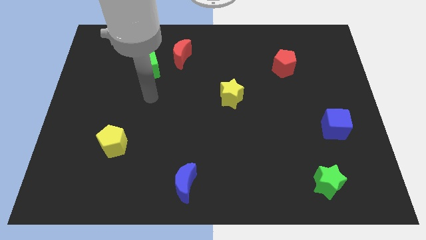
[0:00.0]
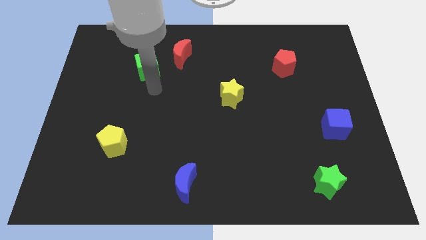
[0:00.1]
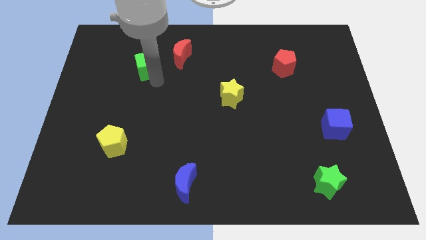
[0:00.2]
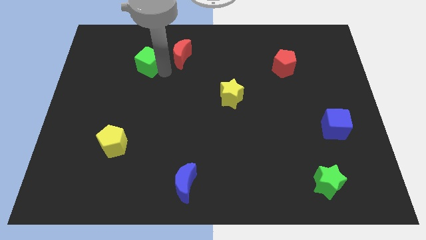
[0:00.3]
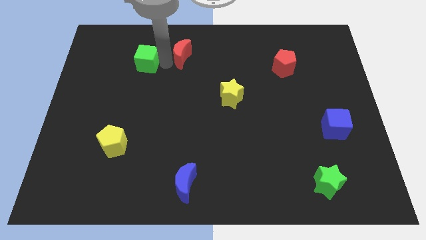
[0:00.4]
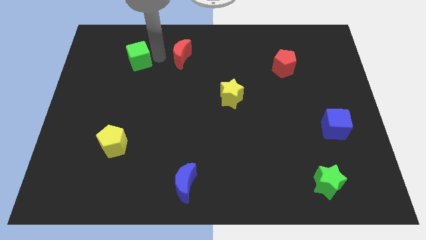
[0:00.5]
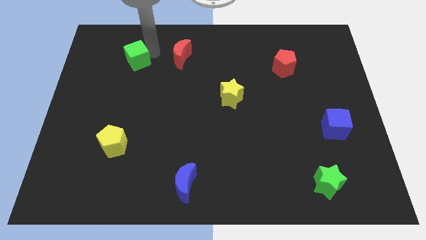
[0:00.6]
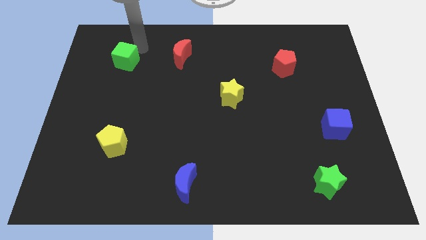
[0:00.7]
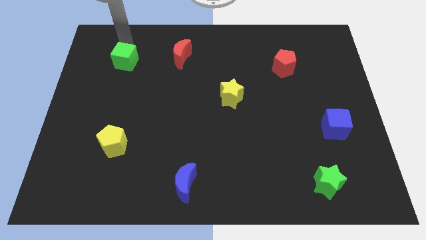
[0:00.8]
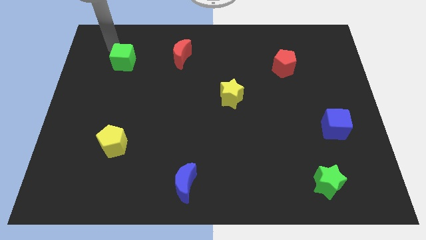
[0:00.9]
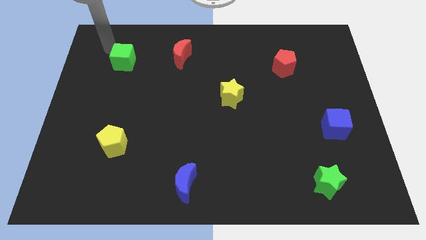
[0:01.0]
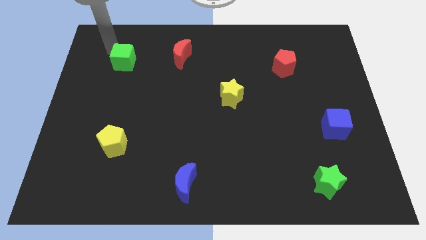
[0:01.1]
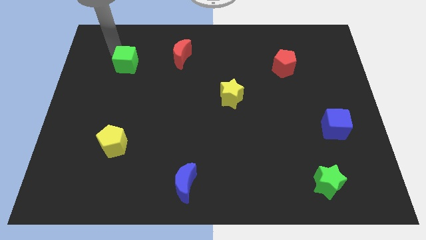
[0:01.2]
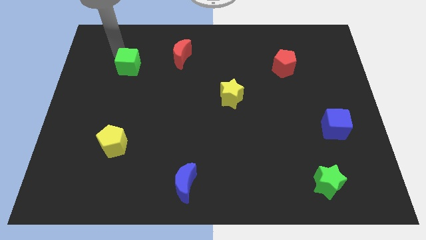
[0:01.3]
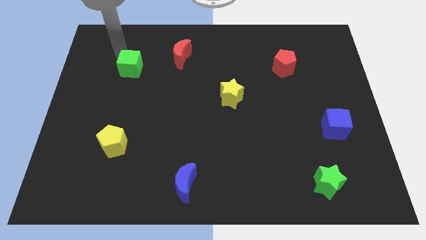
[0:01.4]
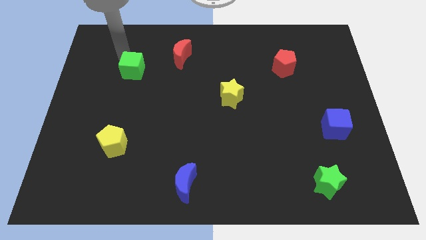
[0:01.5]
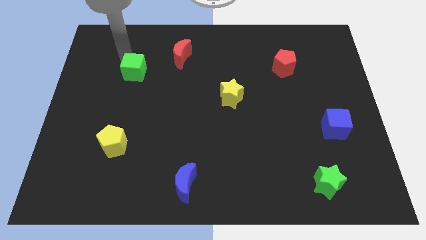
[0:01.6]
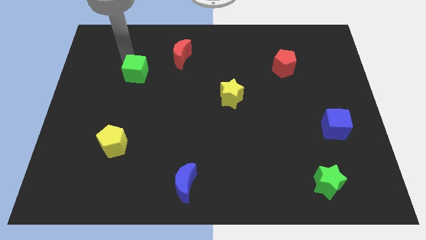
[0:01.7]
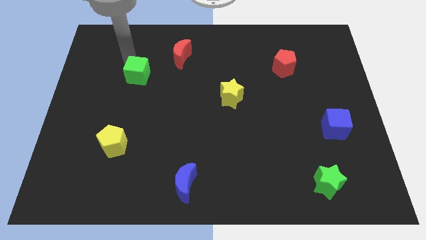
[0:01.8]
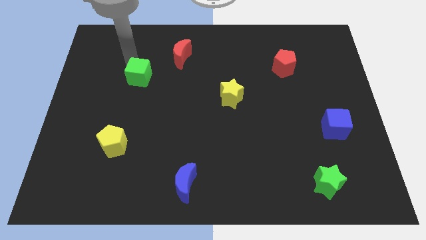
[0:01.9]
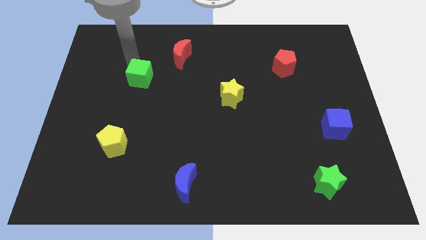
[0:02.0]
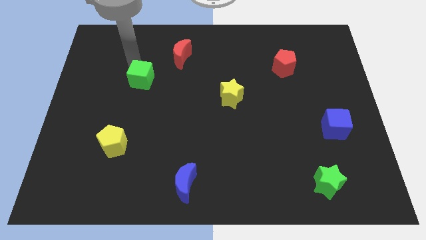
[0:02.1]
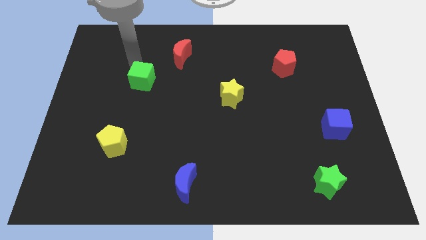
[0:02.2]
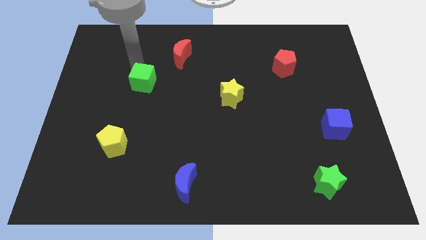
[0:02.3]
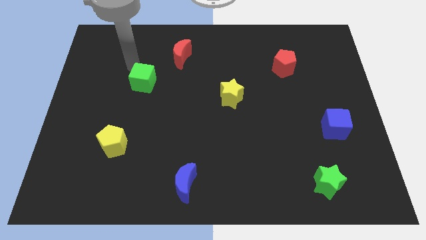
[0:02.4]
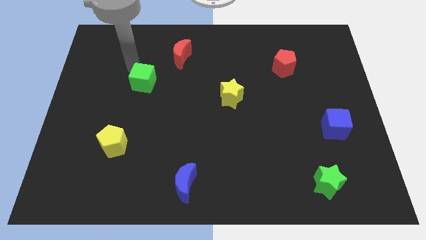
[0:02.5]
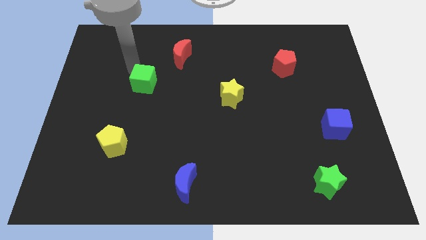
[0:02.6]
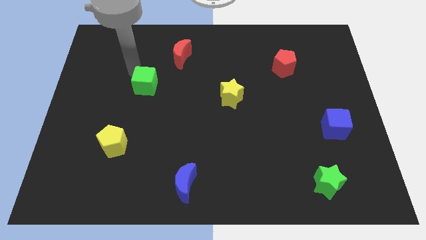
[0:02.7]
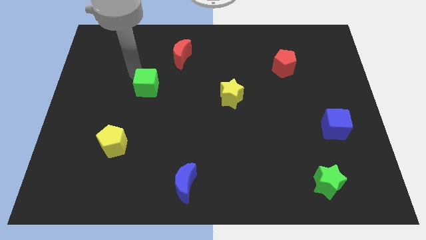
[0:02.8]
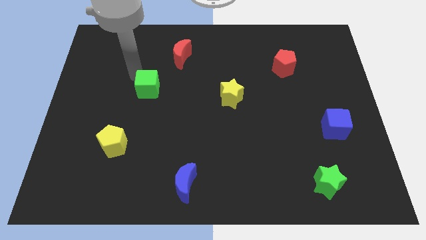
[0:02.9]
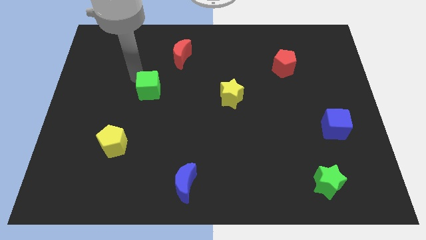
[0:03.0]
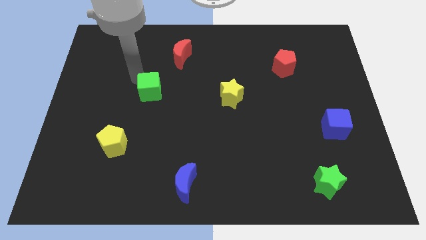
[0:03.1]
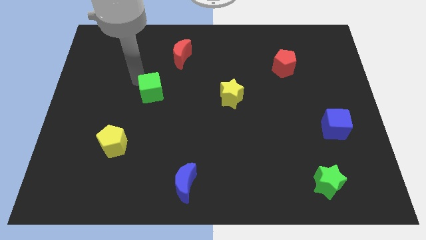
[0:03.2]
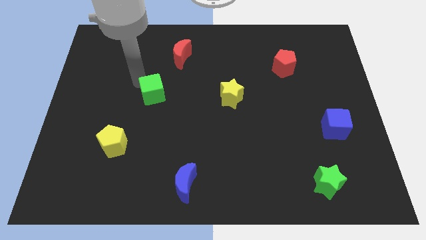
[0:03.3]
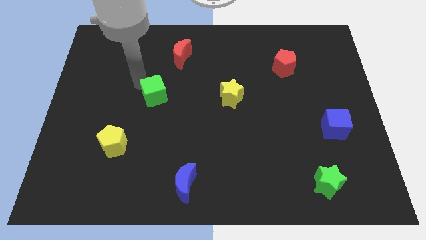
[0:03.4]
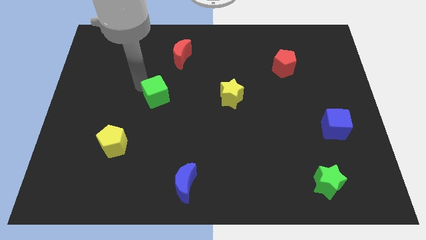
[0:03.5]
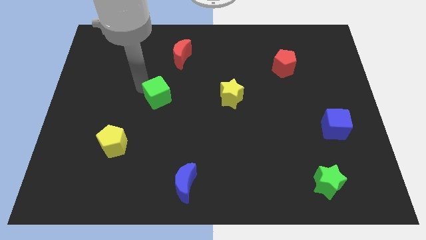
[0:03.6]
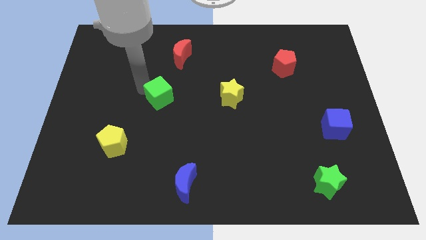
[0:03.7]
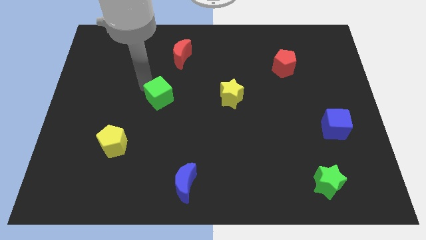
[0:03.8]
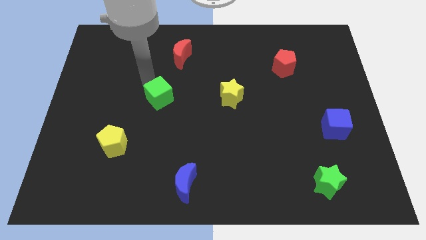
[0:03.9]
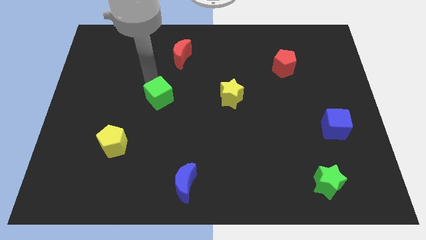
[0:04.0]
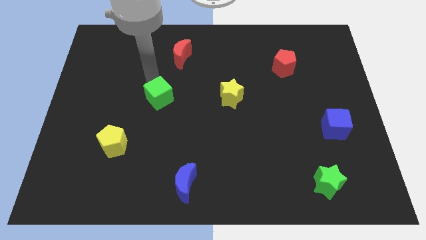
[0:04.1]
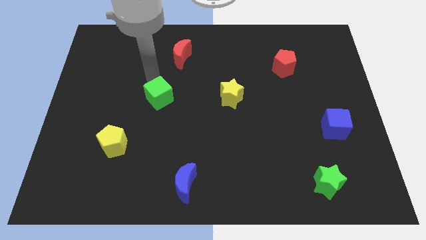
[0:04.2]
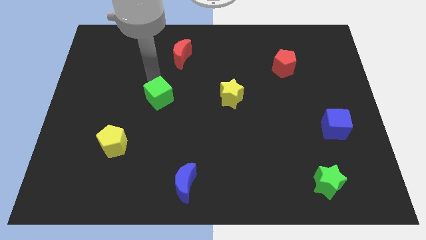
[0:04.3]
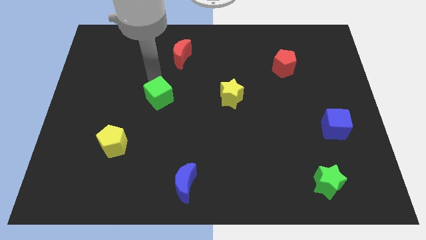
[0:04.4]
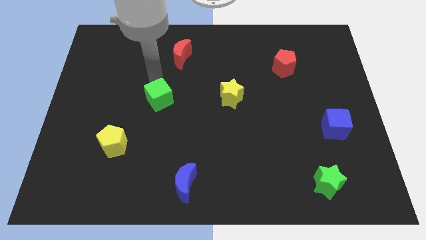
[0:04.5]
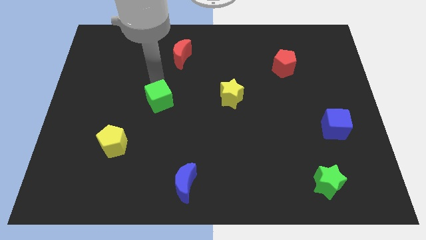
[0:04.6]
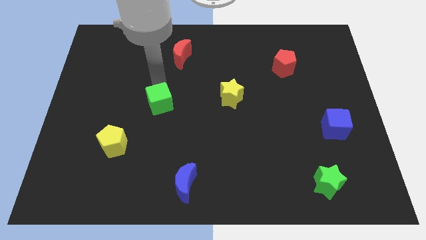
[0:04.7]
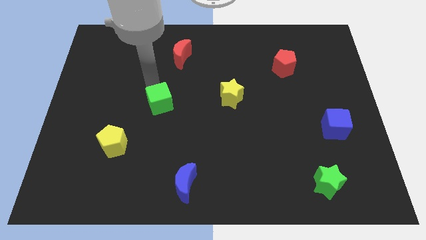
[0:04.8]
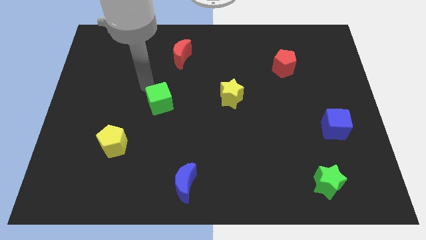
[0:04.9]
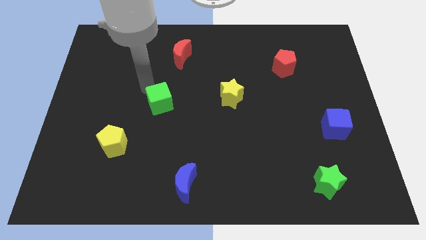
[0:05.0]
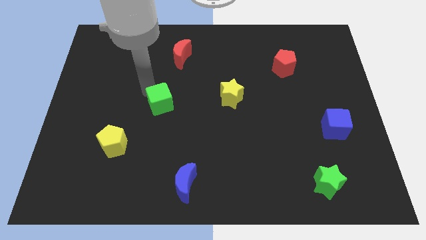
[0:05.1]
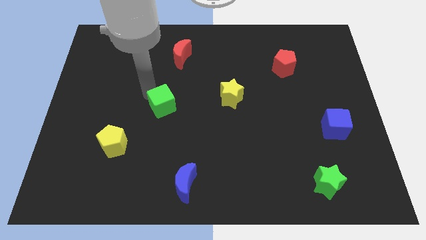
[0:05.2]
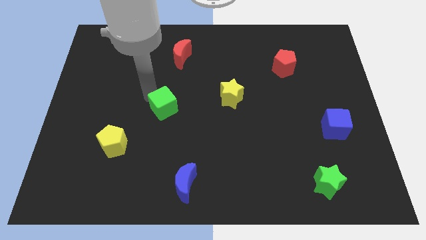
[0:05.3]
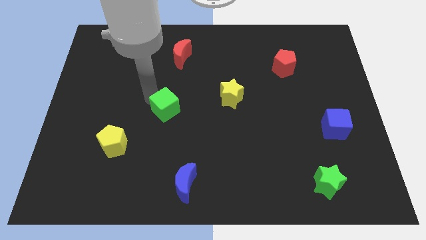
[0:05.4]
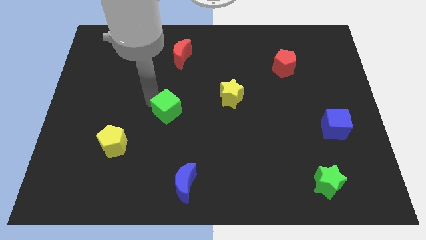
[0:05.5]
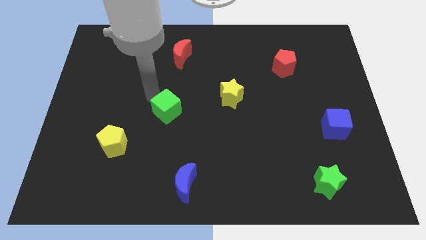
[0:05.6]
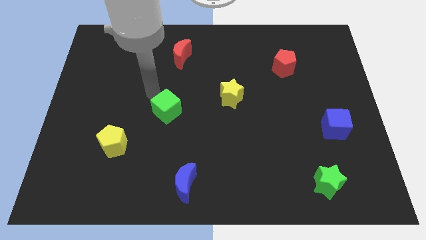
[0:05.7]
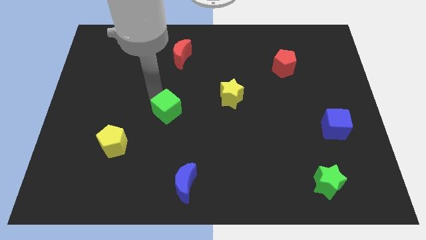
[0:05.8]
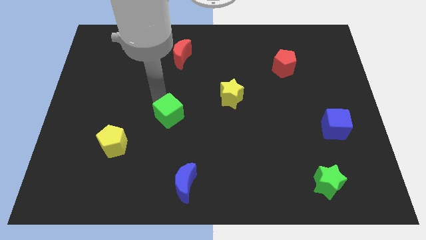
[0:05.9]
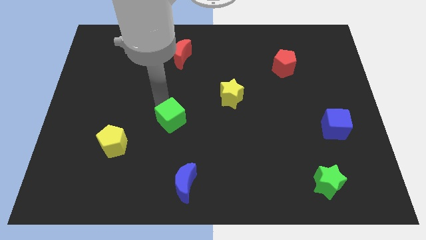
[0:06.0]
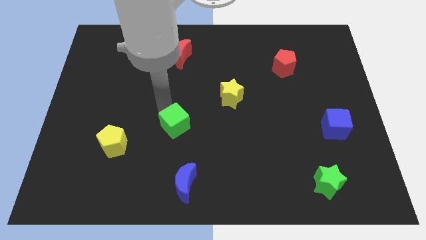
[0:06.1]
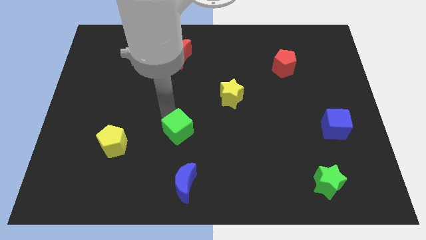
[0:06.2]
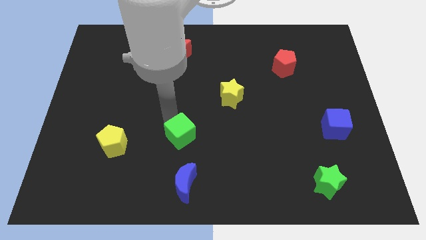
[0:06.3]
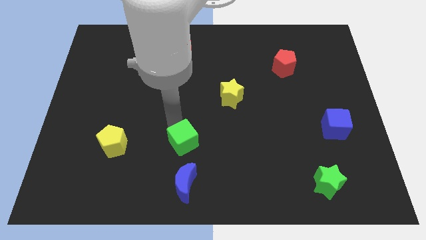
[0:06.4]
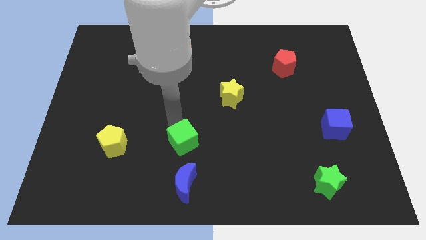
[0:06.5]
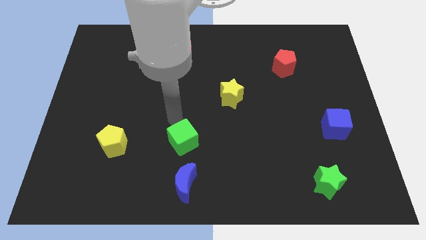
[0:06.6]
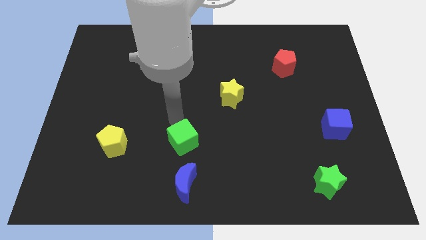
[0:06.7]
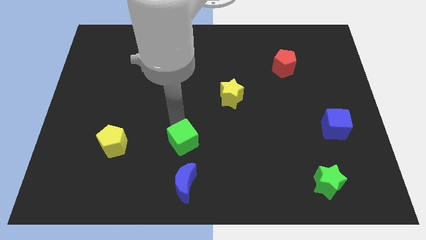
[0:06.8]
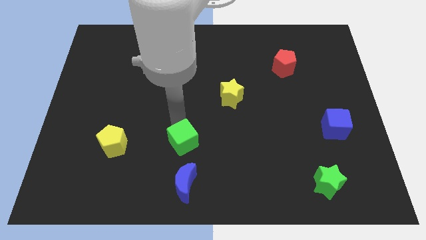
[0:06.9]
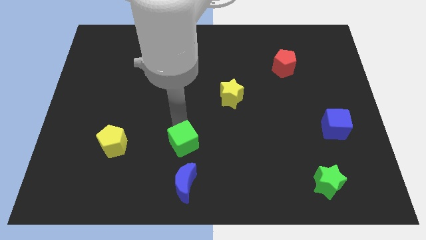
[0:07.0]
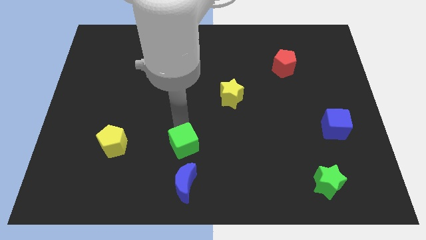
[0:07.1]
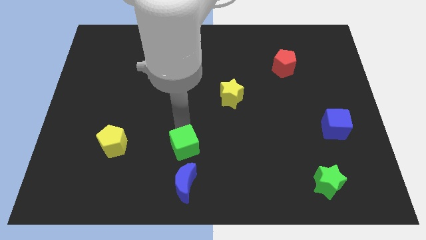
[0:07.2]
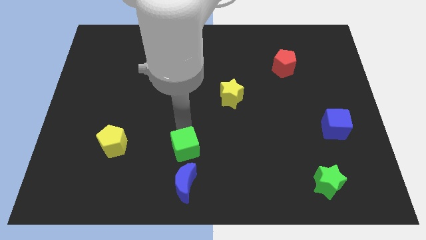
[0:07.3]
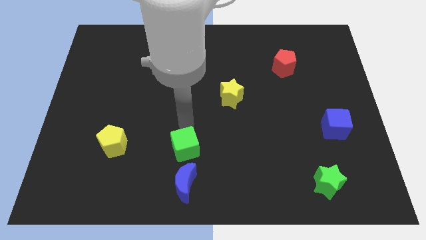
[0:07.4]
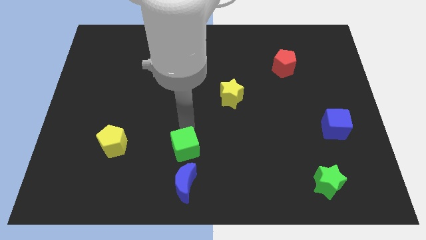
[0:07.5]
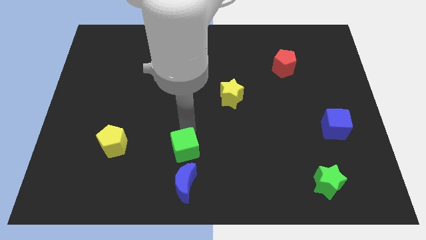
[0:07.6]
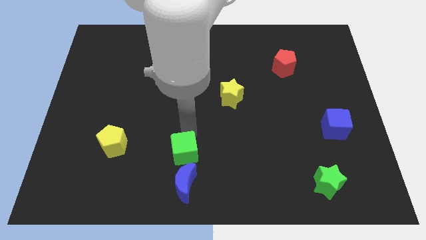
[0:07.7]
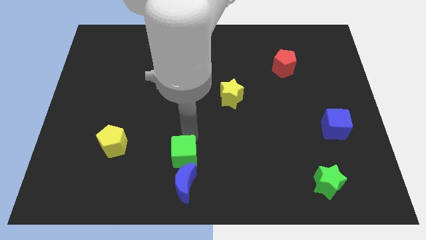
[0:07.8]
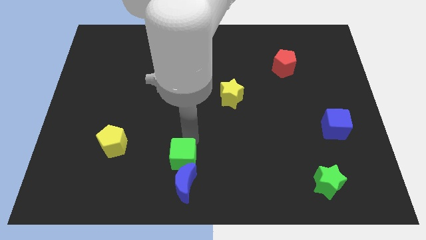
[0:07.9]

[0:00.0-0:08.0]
slide the green cube to the blue moon
